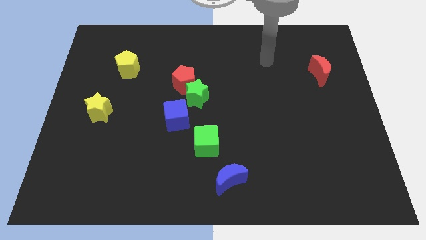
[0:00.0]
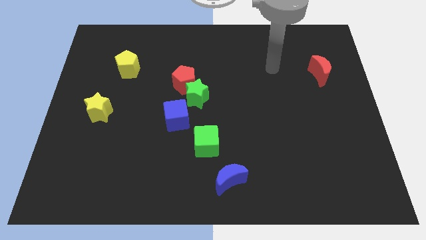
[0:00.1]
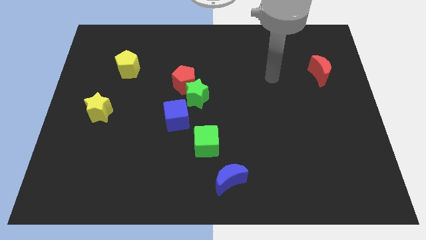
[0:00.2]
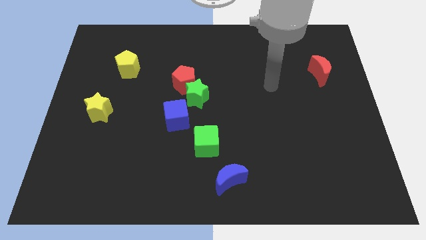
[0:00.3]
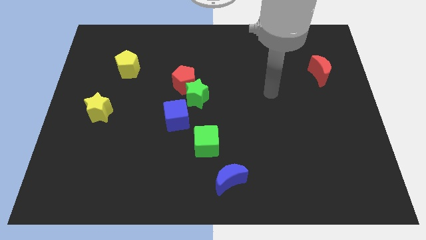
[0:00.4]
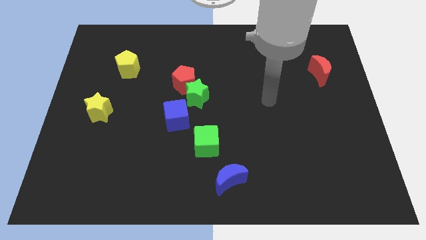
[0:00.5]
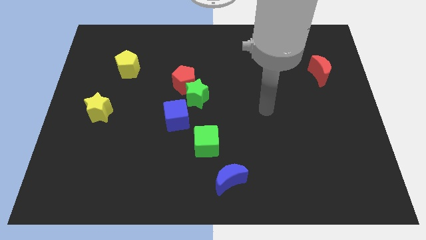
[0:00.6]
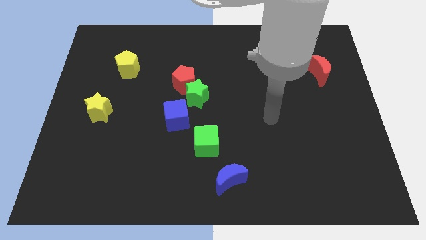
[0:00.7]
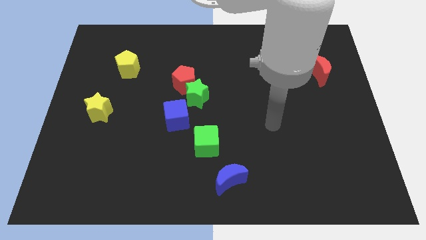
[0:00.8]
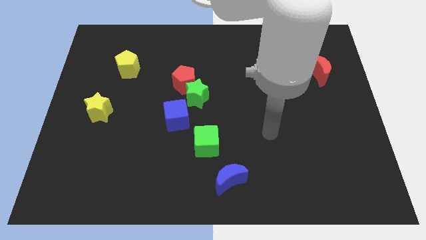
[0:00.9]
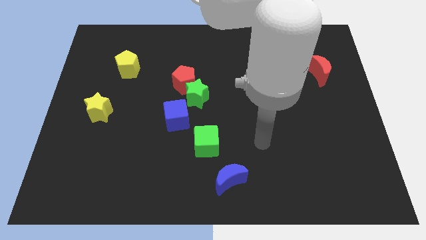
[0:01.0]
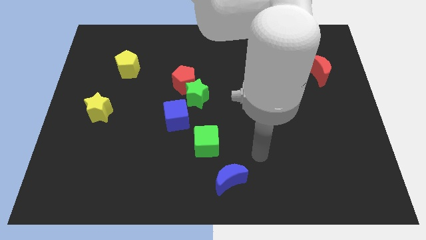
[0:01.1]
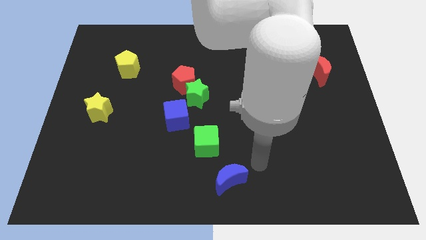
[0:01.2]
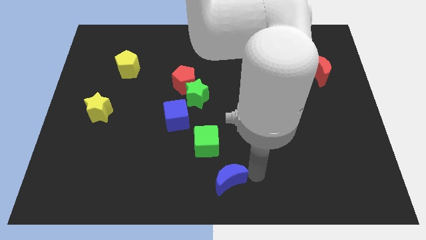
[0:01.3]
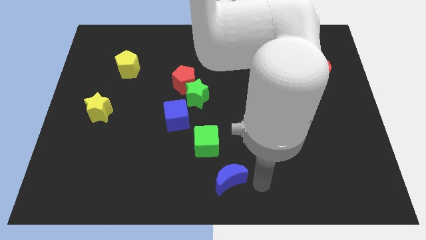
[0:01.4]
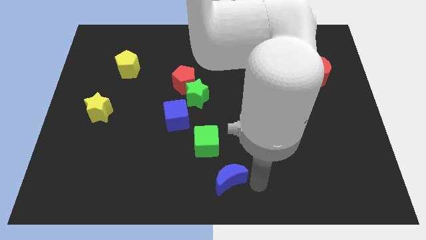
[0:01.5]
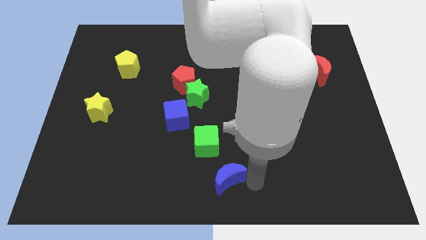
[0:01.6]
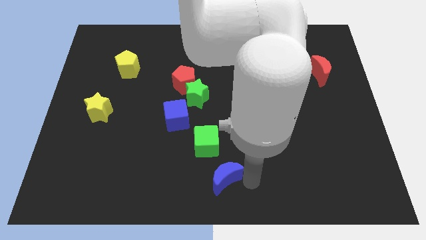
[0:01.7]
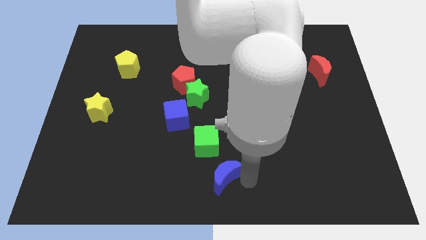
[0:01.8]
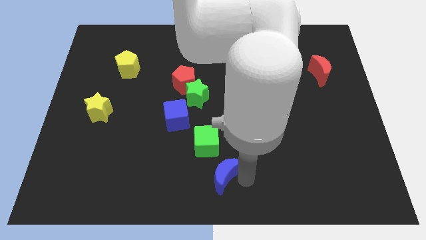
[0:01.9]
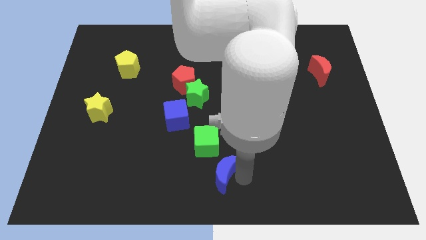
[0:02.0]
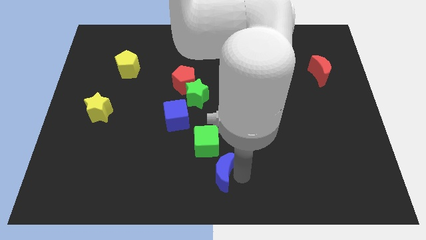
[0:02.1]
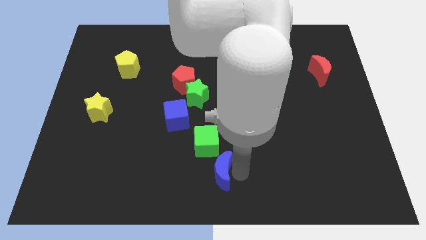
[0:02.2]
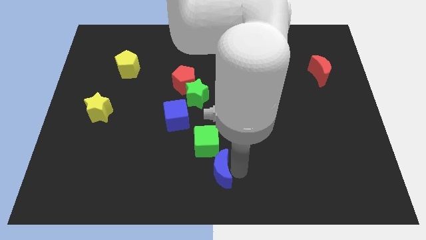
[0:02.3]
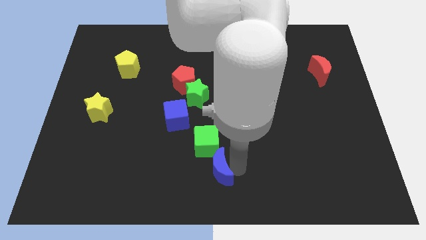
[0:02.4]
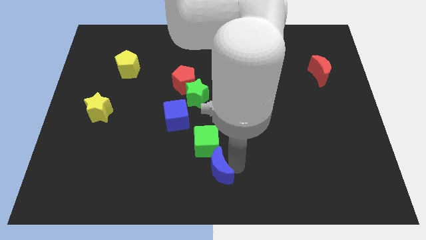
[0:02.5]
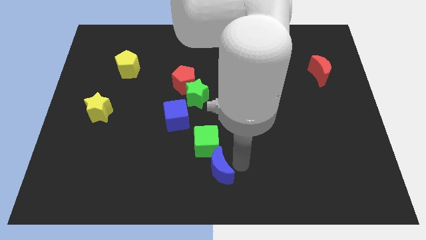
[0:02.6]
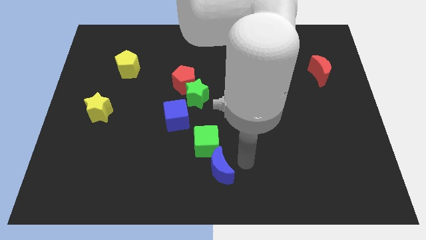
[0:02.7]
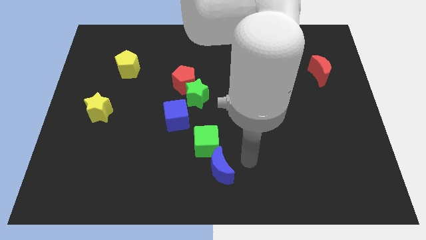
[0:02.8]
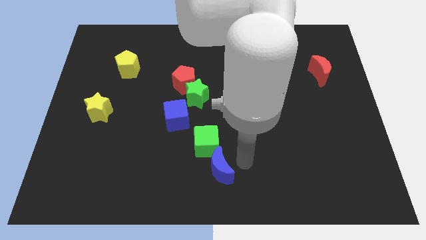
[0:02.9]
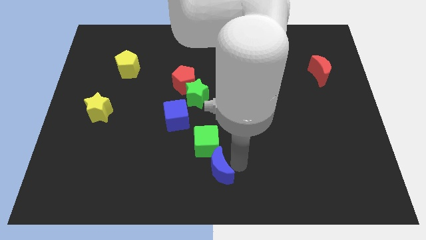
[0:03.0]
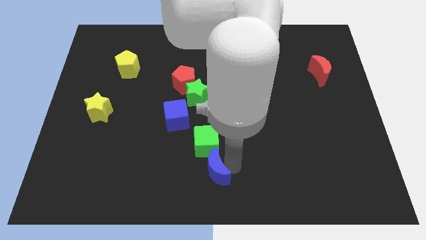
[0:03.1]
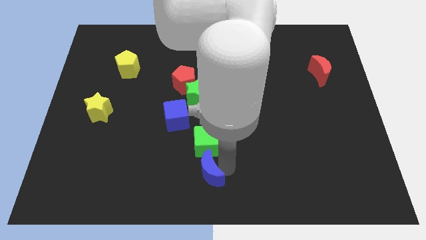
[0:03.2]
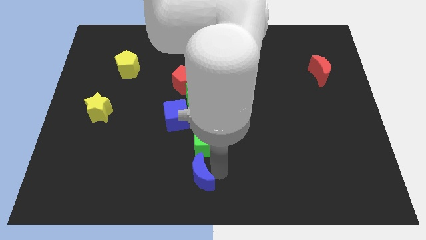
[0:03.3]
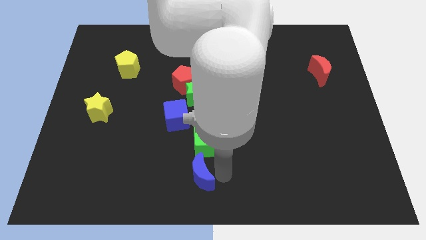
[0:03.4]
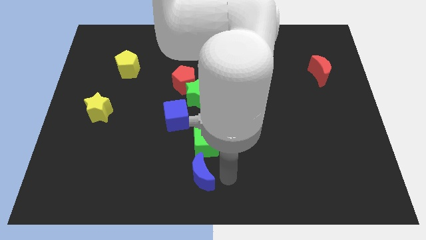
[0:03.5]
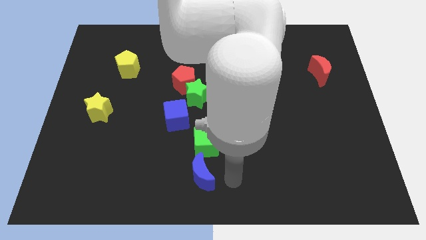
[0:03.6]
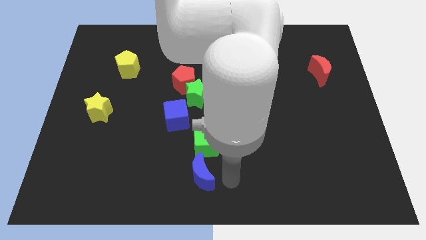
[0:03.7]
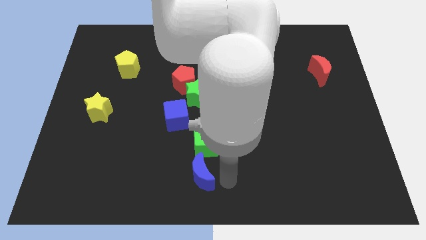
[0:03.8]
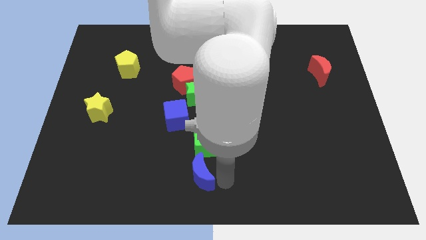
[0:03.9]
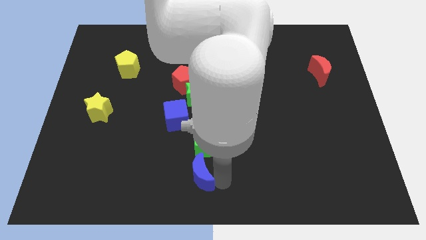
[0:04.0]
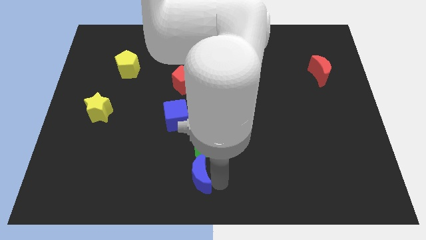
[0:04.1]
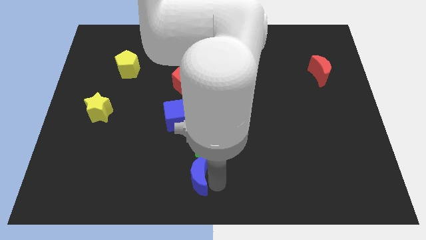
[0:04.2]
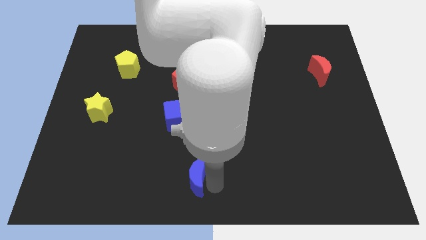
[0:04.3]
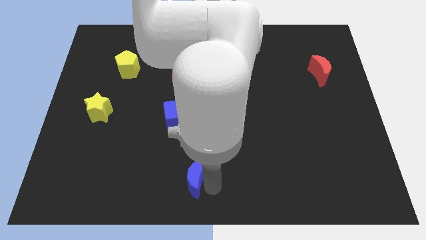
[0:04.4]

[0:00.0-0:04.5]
push the blue moon left a bit

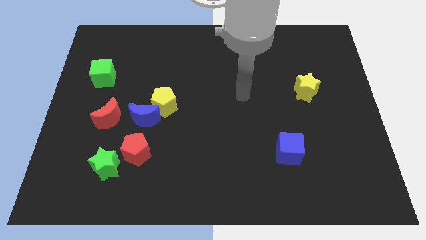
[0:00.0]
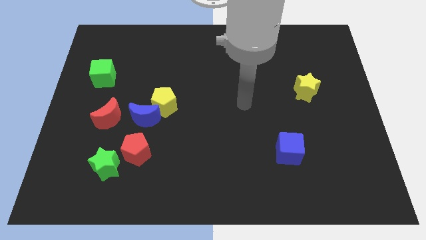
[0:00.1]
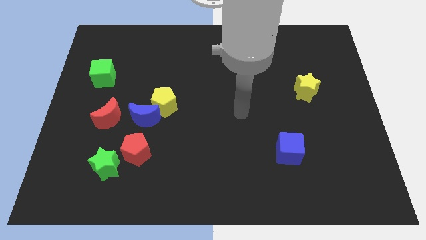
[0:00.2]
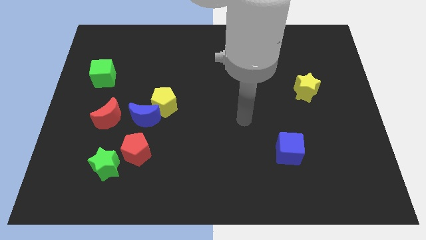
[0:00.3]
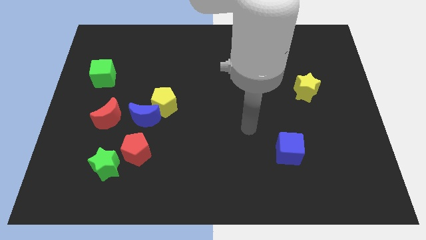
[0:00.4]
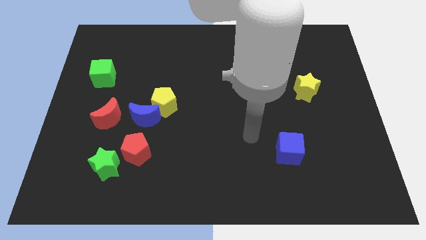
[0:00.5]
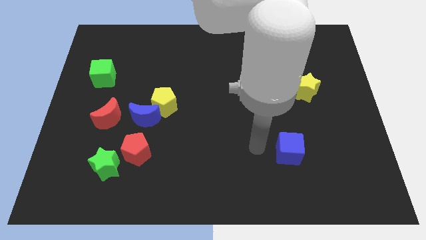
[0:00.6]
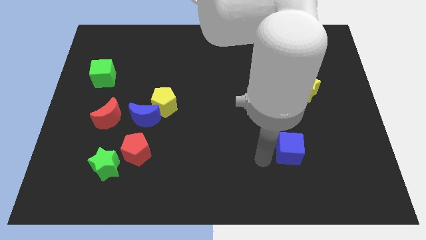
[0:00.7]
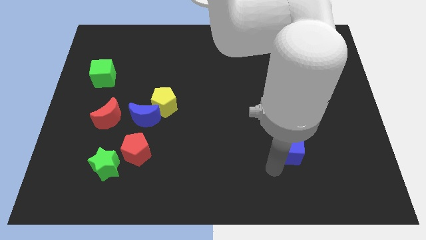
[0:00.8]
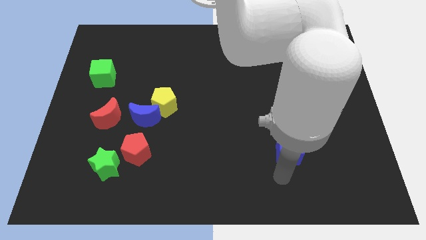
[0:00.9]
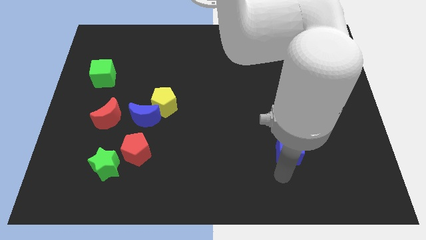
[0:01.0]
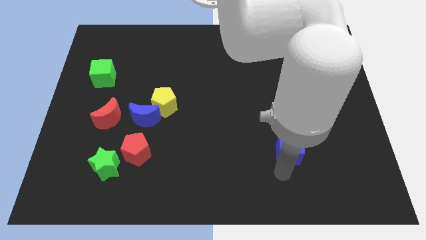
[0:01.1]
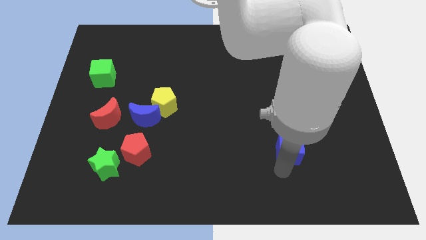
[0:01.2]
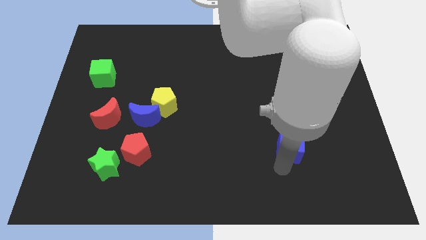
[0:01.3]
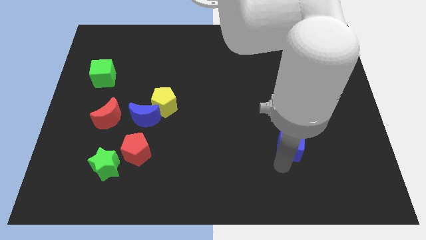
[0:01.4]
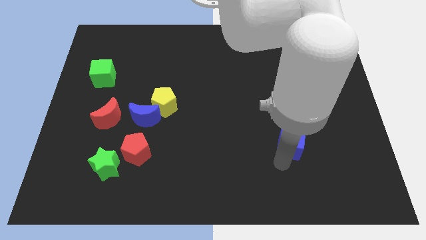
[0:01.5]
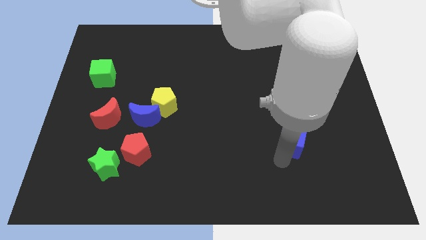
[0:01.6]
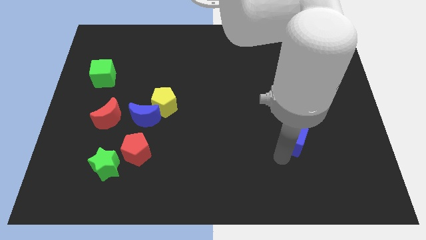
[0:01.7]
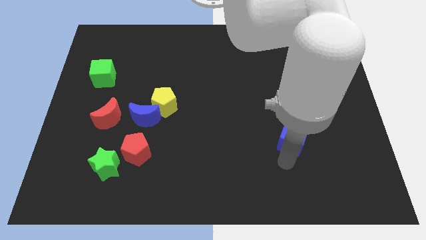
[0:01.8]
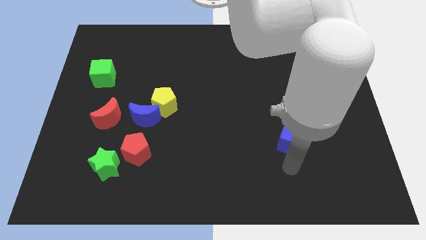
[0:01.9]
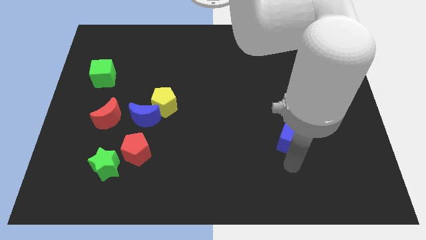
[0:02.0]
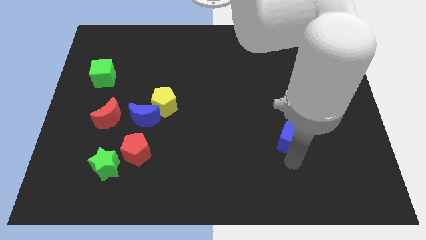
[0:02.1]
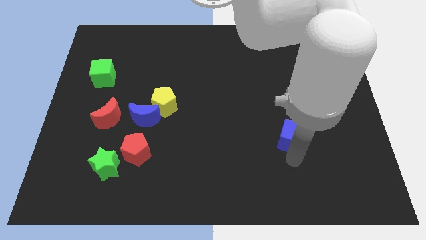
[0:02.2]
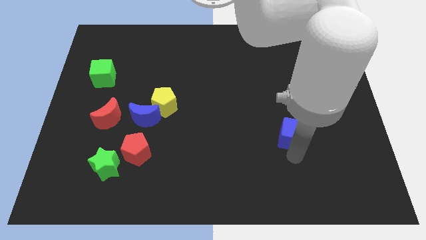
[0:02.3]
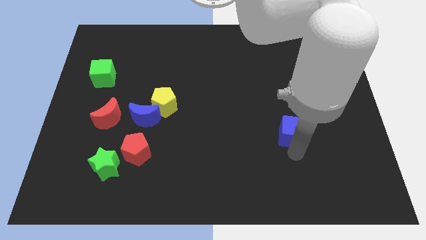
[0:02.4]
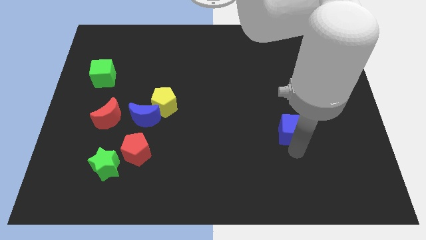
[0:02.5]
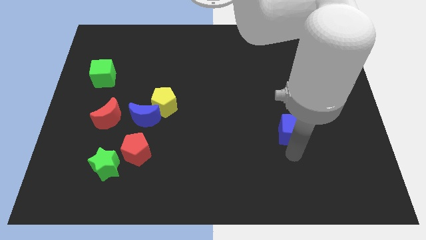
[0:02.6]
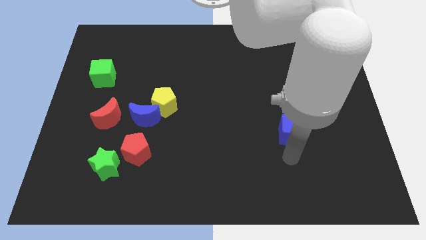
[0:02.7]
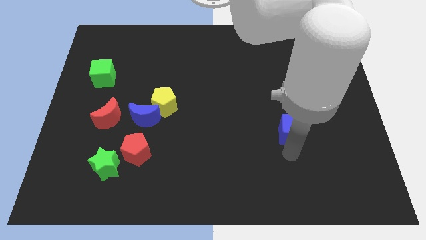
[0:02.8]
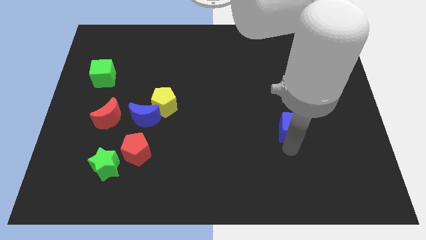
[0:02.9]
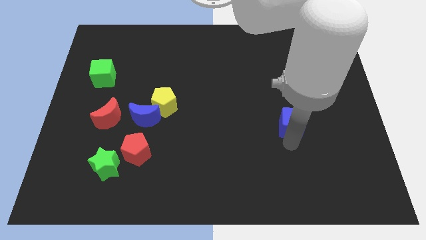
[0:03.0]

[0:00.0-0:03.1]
slightly slide the blue cube upwards

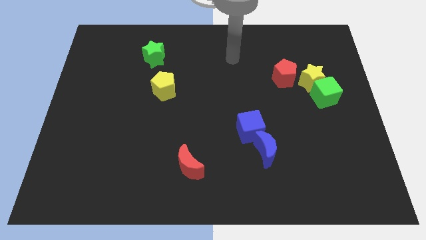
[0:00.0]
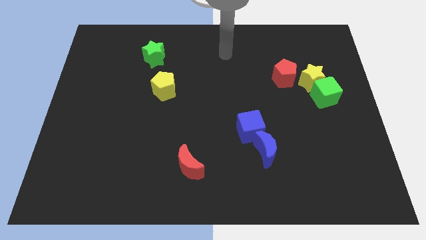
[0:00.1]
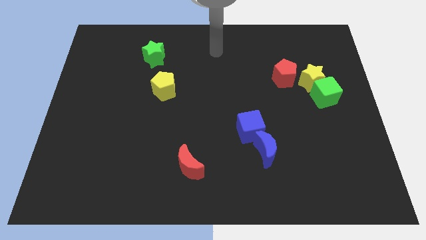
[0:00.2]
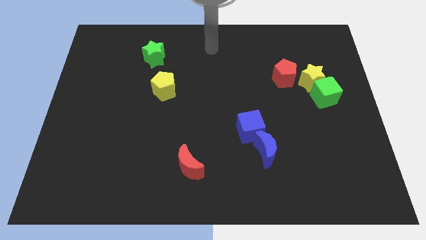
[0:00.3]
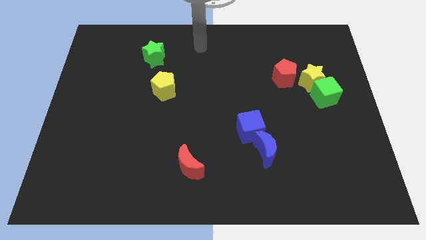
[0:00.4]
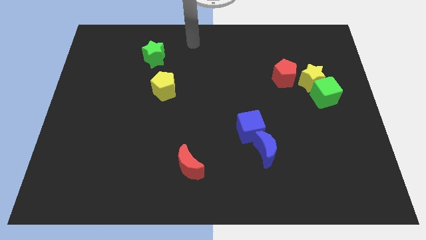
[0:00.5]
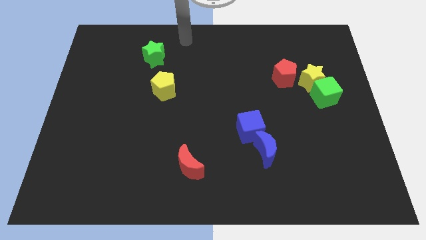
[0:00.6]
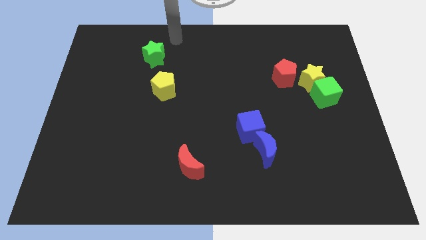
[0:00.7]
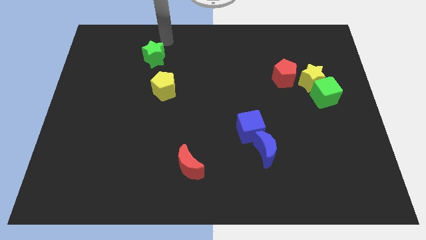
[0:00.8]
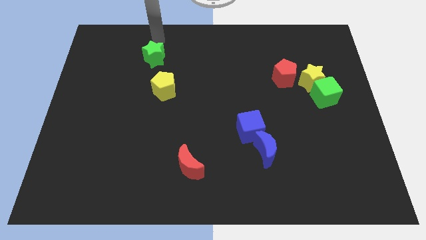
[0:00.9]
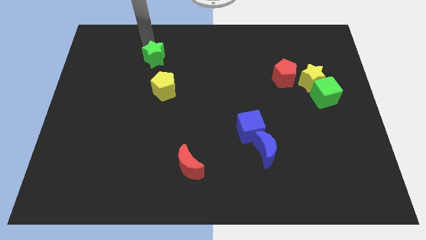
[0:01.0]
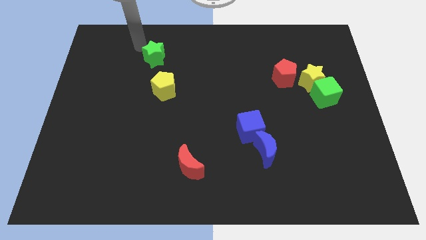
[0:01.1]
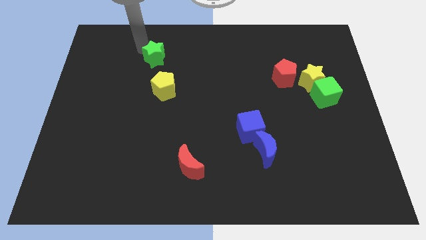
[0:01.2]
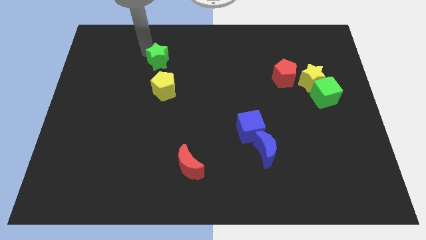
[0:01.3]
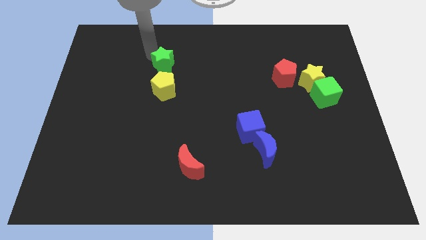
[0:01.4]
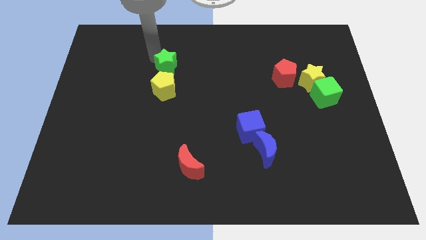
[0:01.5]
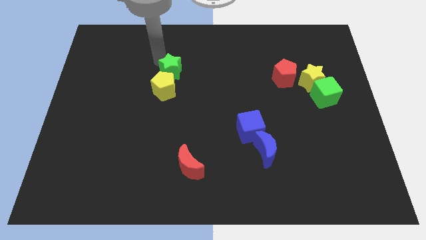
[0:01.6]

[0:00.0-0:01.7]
move the green star somewhat diagonally down and right
